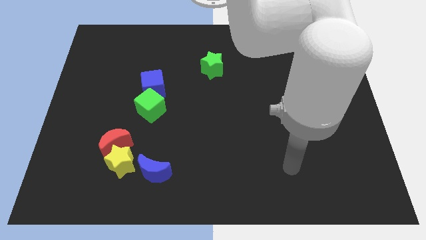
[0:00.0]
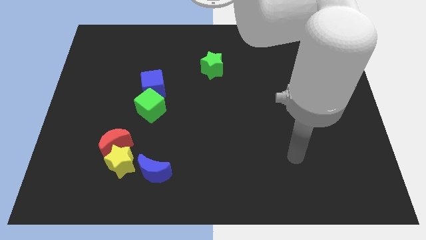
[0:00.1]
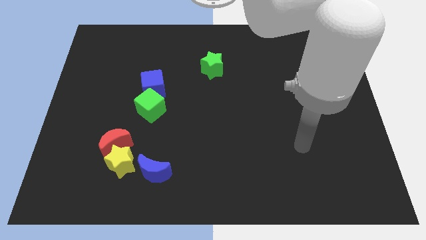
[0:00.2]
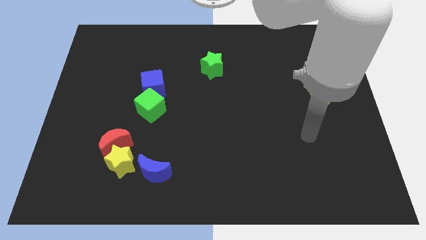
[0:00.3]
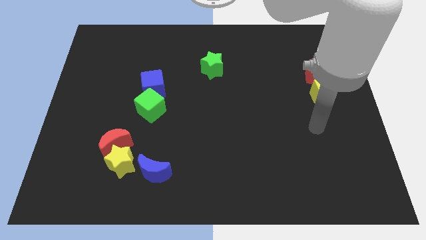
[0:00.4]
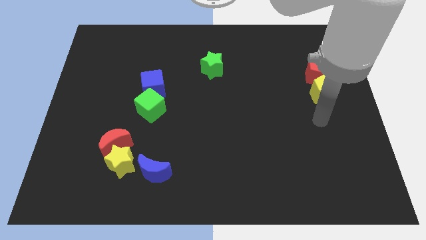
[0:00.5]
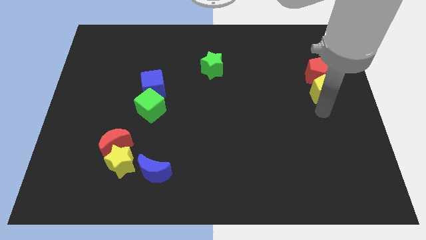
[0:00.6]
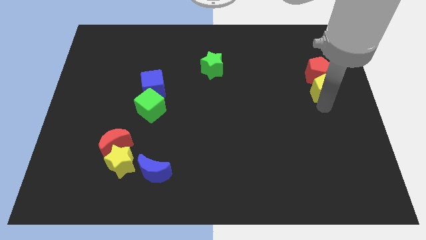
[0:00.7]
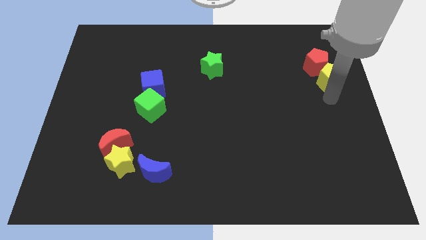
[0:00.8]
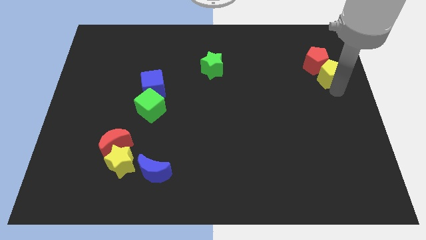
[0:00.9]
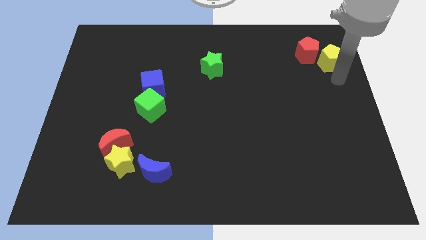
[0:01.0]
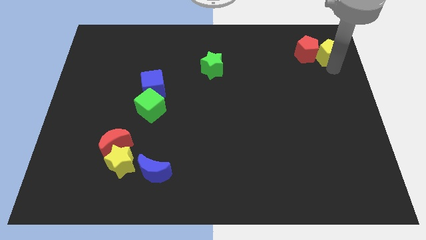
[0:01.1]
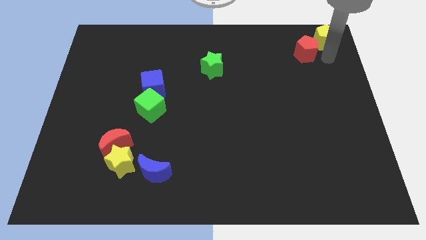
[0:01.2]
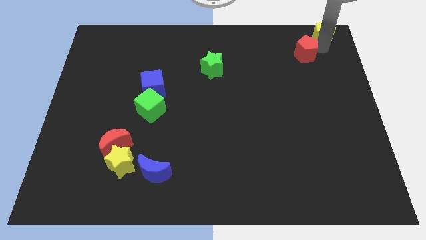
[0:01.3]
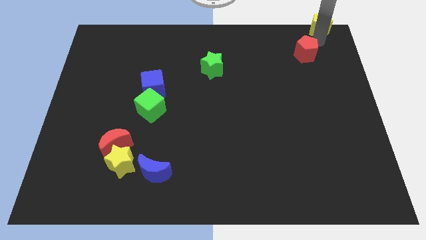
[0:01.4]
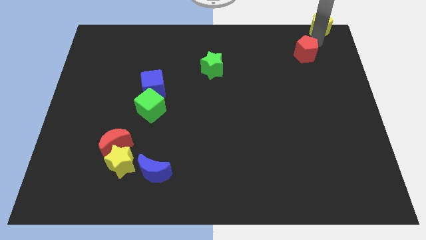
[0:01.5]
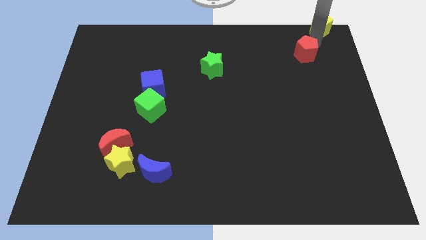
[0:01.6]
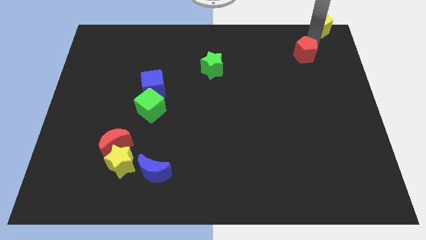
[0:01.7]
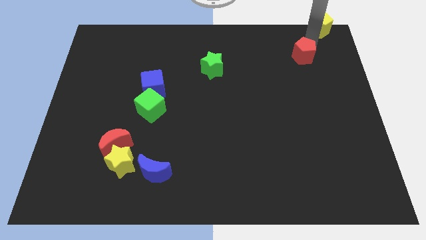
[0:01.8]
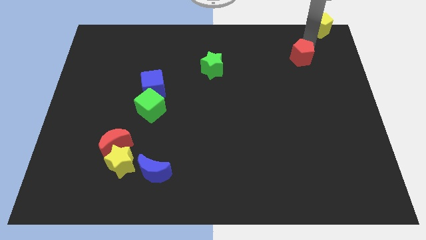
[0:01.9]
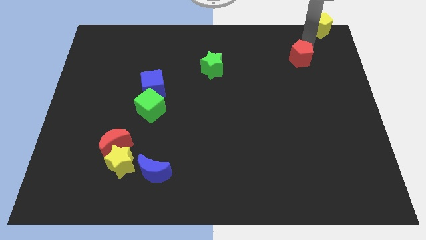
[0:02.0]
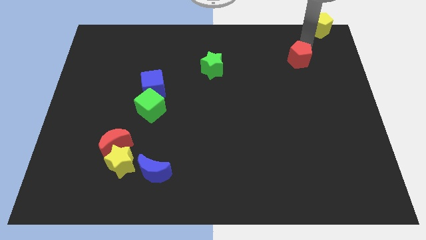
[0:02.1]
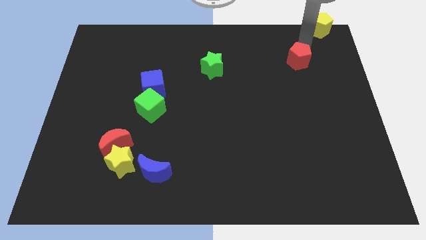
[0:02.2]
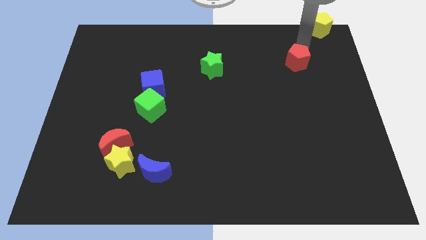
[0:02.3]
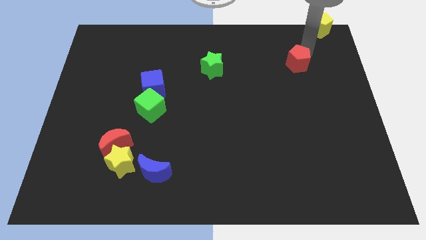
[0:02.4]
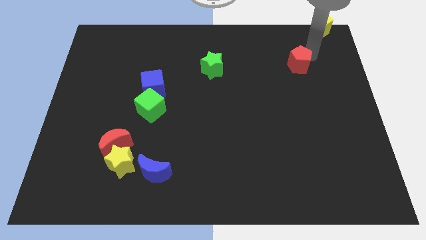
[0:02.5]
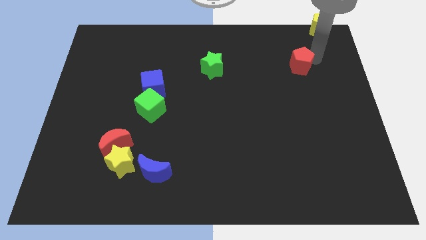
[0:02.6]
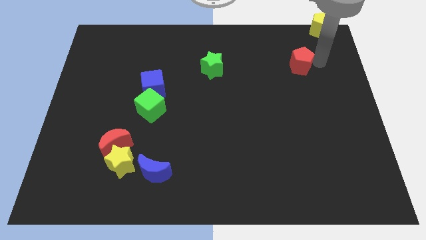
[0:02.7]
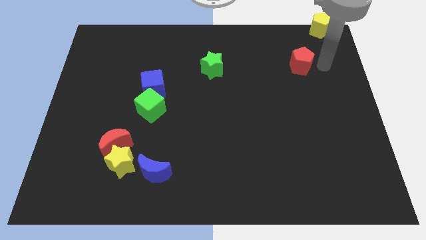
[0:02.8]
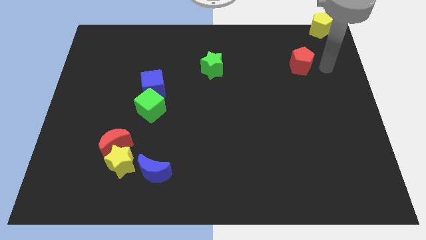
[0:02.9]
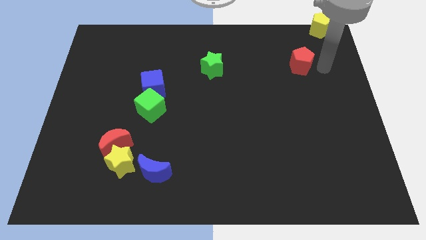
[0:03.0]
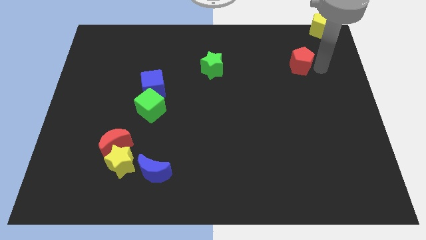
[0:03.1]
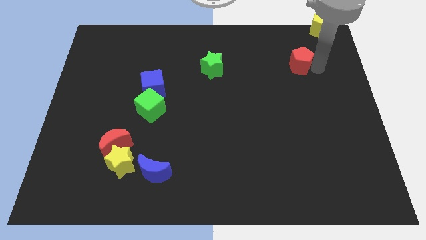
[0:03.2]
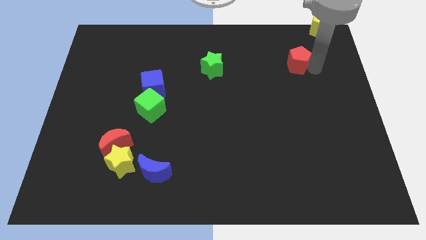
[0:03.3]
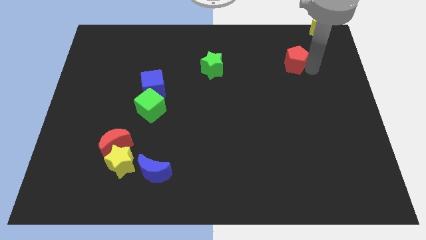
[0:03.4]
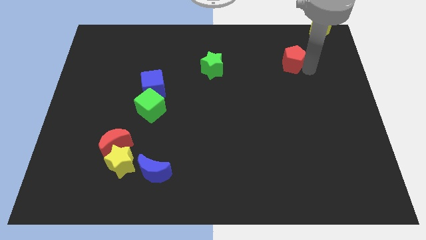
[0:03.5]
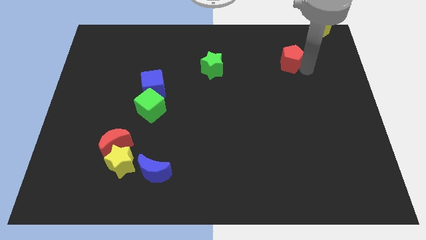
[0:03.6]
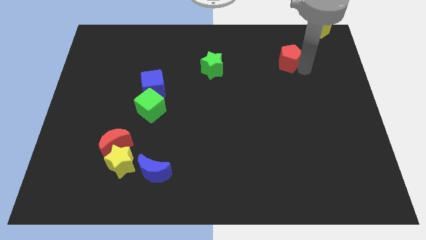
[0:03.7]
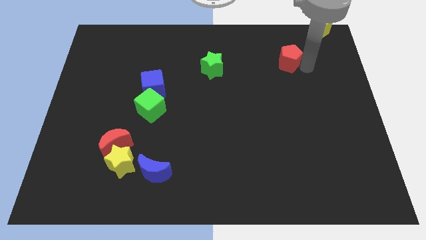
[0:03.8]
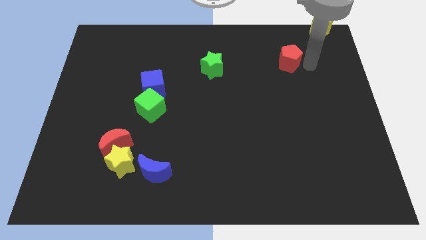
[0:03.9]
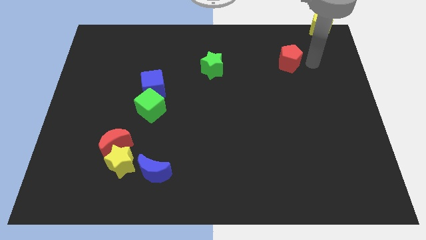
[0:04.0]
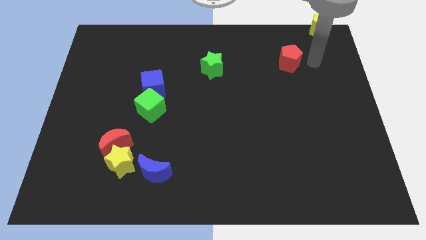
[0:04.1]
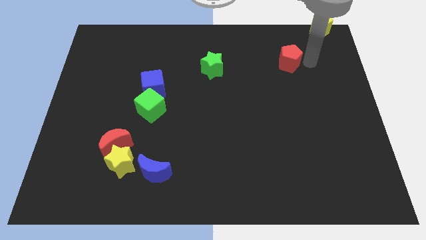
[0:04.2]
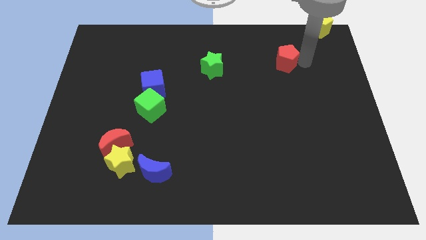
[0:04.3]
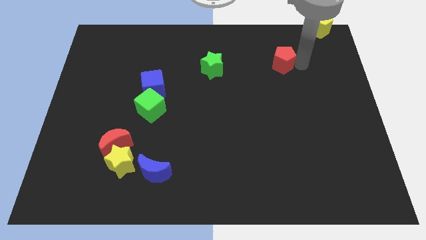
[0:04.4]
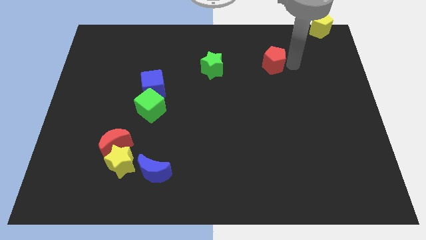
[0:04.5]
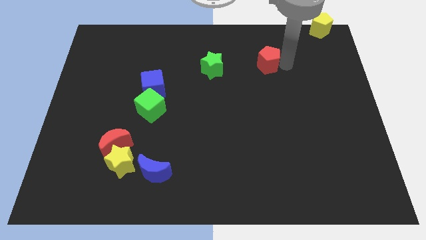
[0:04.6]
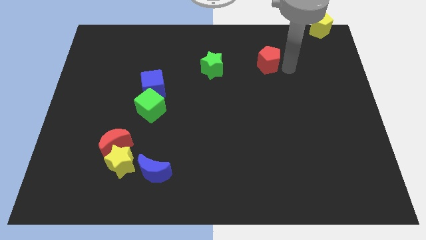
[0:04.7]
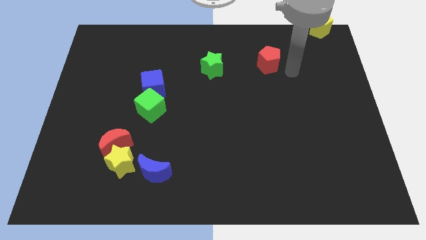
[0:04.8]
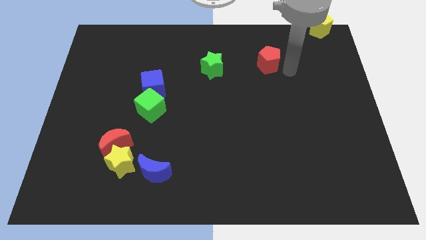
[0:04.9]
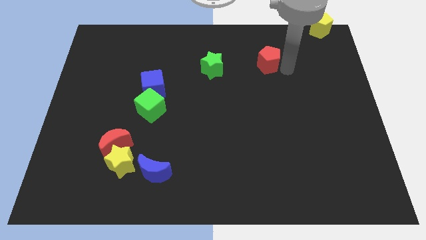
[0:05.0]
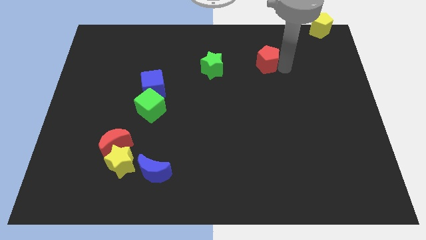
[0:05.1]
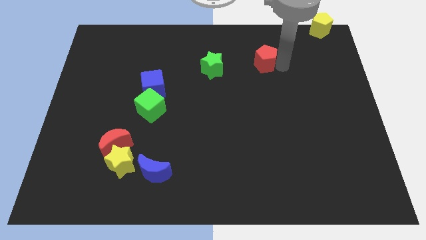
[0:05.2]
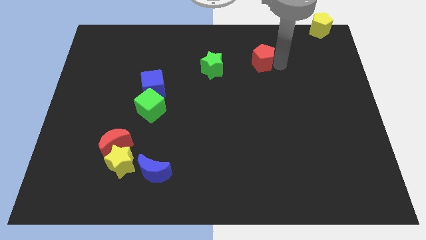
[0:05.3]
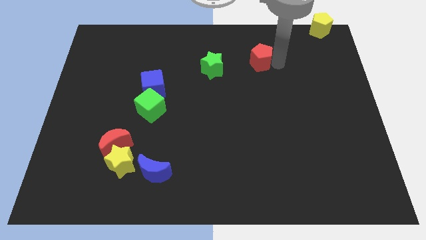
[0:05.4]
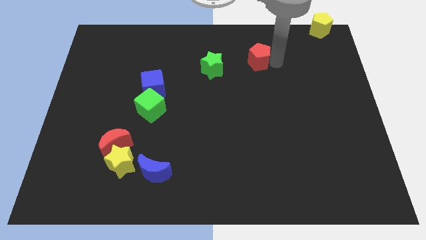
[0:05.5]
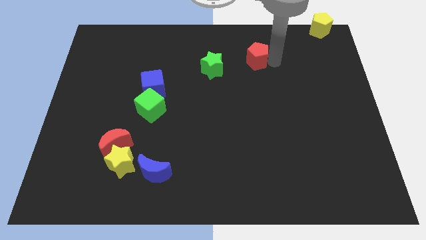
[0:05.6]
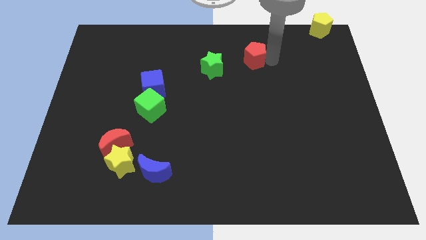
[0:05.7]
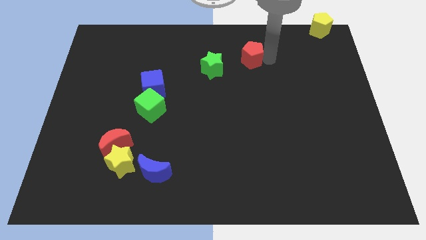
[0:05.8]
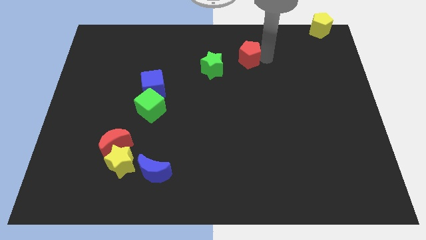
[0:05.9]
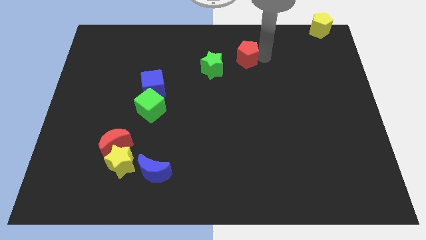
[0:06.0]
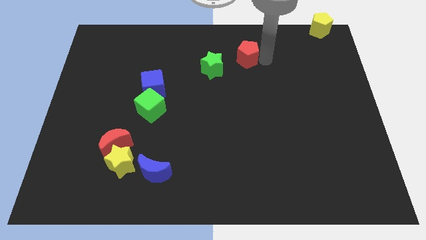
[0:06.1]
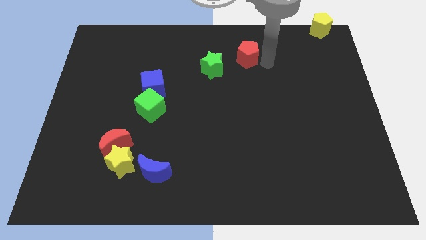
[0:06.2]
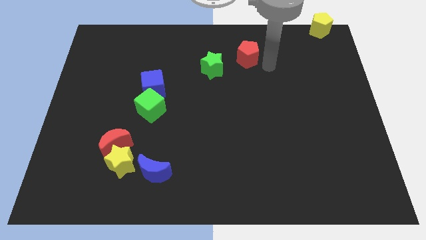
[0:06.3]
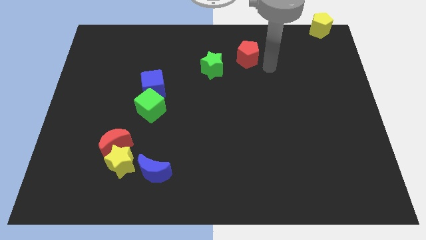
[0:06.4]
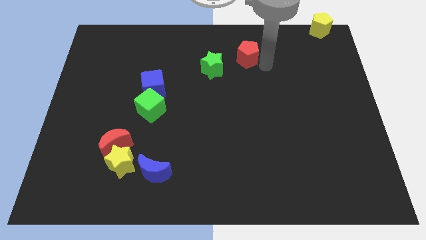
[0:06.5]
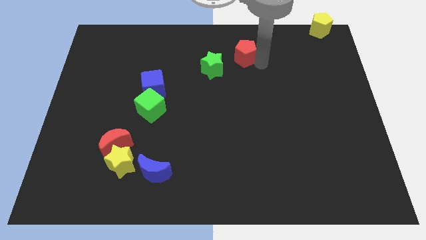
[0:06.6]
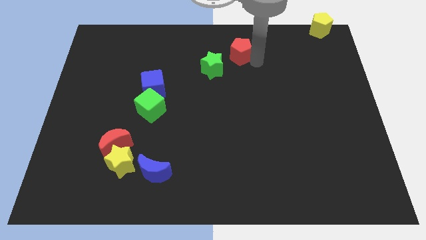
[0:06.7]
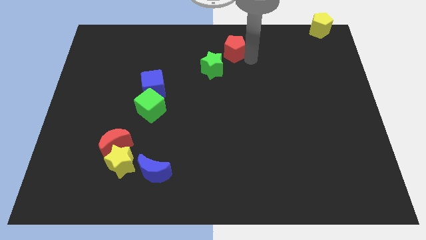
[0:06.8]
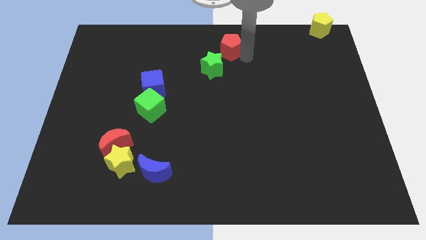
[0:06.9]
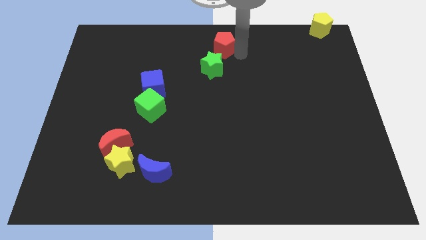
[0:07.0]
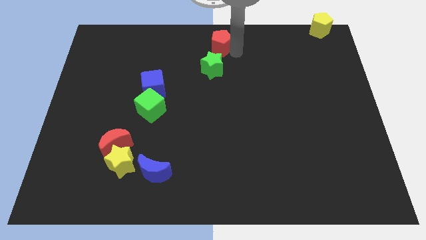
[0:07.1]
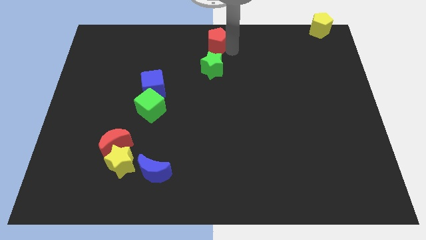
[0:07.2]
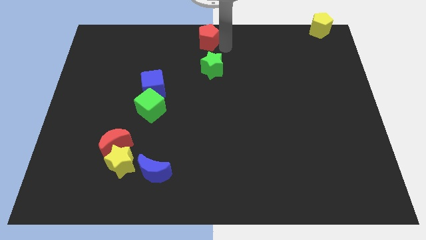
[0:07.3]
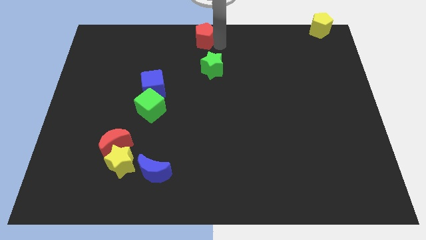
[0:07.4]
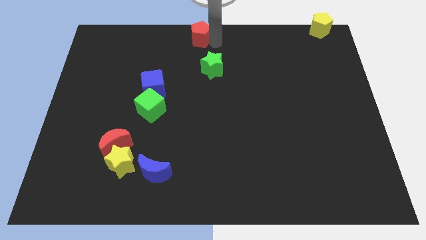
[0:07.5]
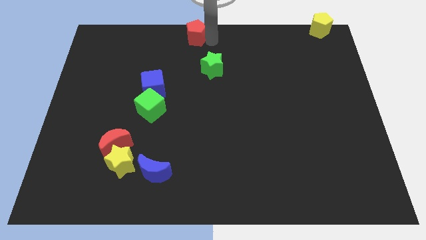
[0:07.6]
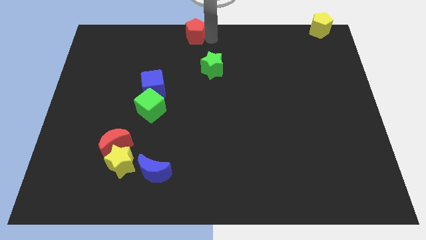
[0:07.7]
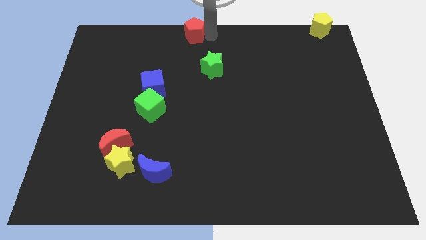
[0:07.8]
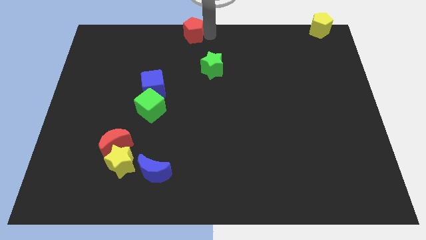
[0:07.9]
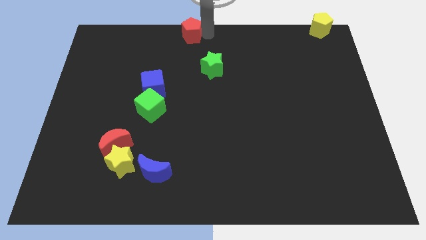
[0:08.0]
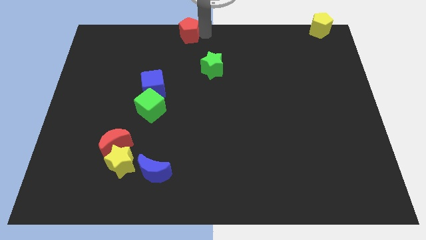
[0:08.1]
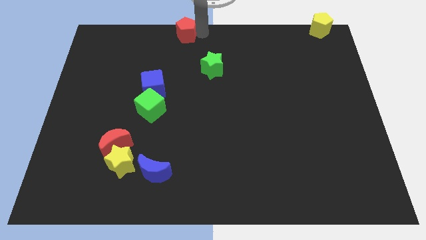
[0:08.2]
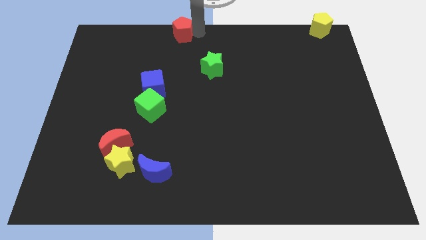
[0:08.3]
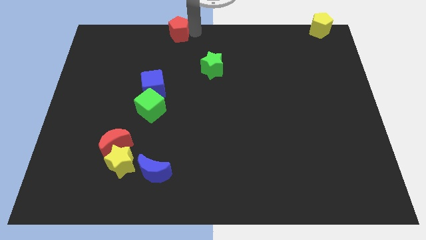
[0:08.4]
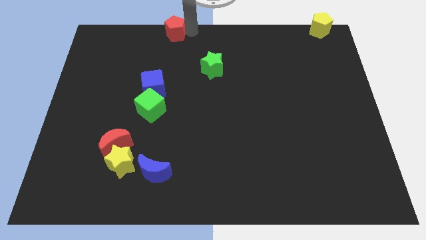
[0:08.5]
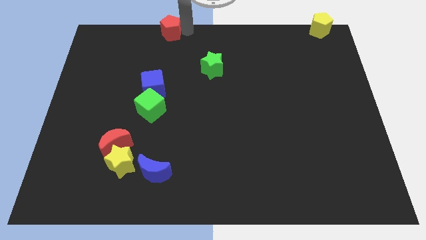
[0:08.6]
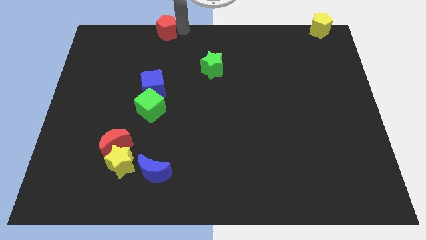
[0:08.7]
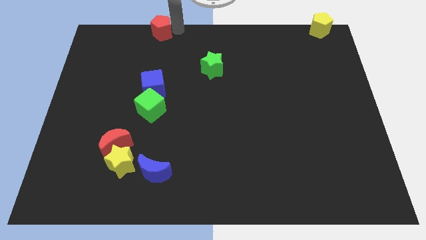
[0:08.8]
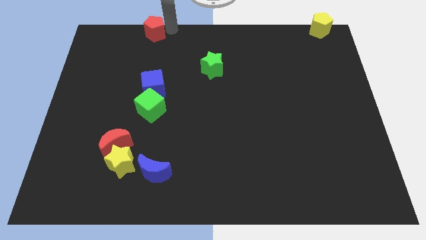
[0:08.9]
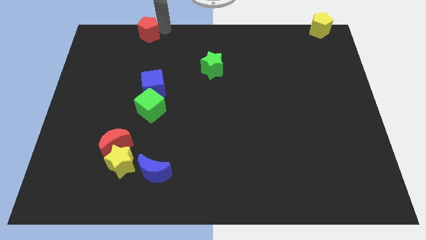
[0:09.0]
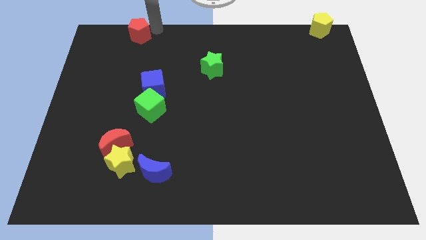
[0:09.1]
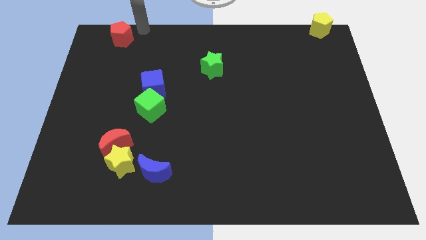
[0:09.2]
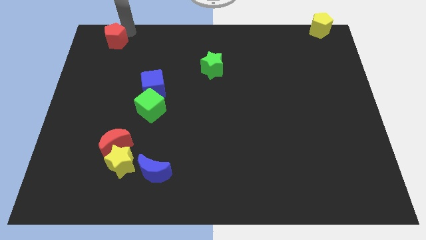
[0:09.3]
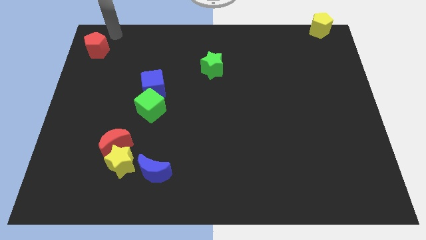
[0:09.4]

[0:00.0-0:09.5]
slide the red pentagon to the top left
